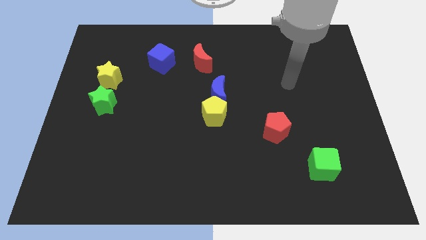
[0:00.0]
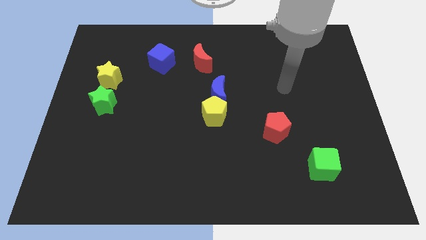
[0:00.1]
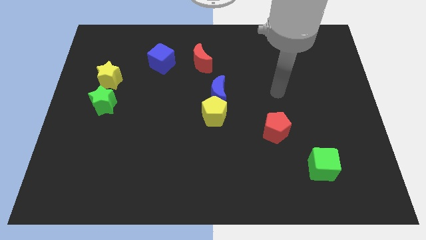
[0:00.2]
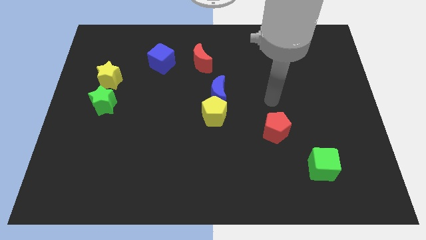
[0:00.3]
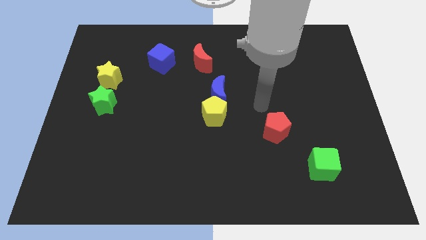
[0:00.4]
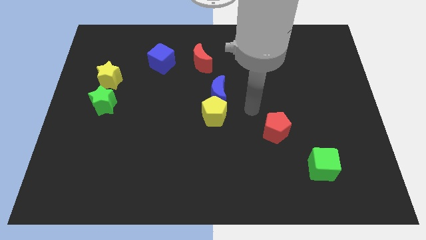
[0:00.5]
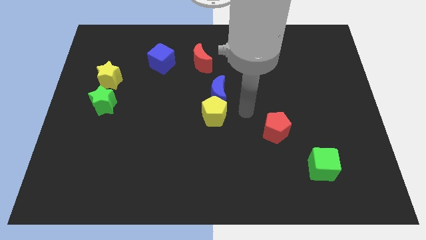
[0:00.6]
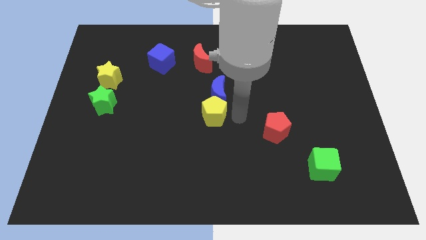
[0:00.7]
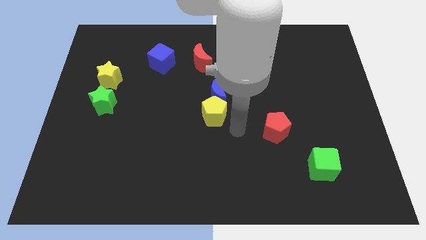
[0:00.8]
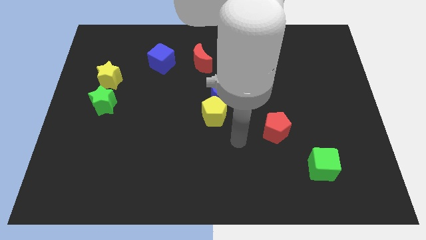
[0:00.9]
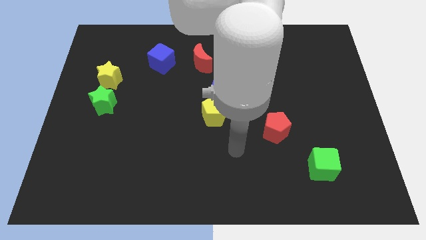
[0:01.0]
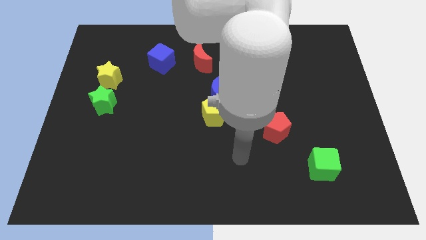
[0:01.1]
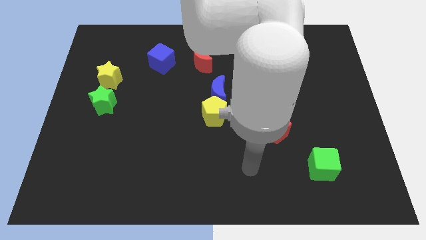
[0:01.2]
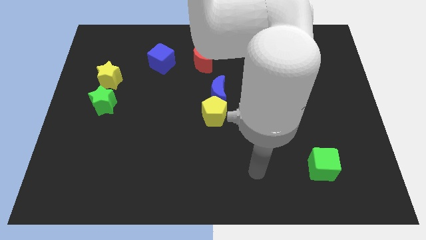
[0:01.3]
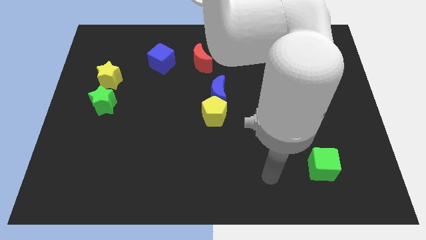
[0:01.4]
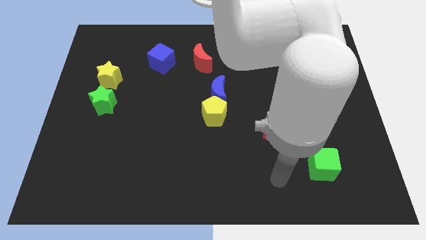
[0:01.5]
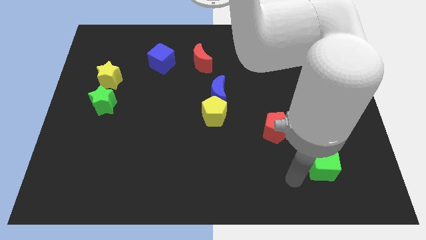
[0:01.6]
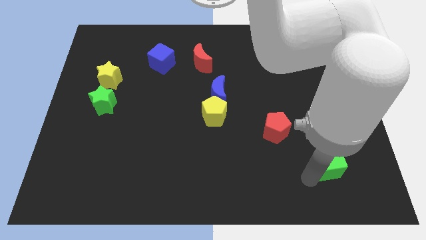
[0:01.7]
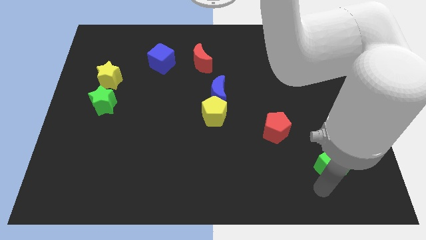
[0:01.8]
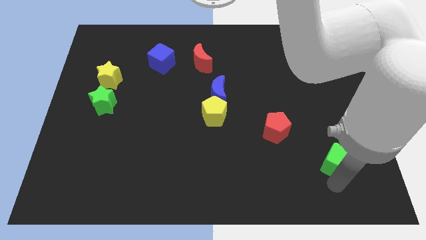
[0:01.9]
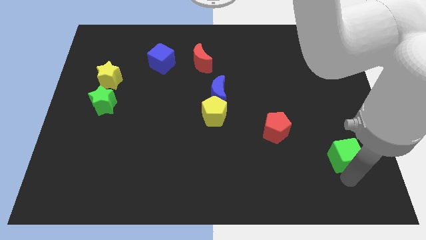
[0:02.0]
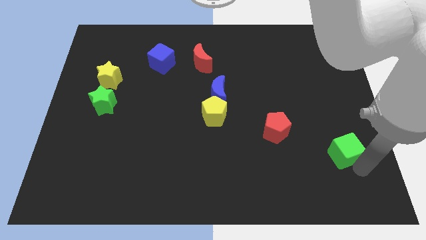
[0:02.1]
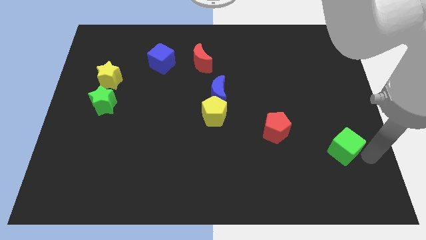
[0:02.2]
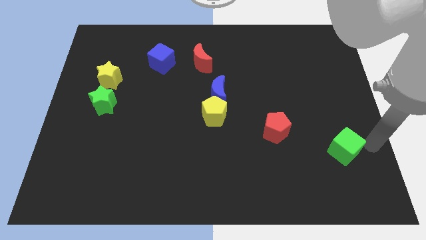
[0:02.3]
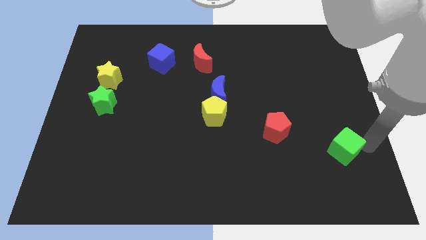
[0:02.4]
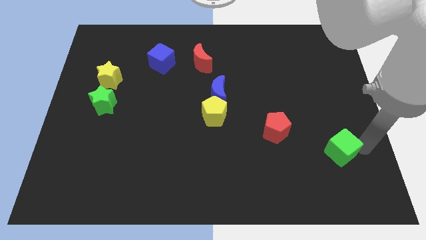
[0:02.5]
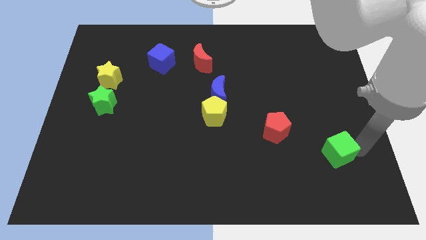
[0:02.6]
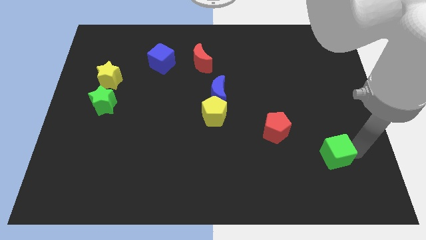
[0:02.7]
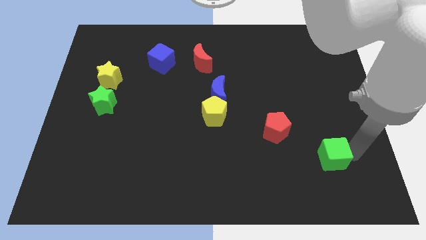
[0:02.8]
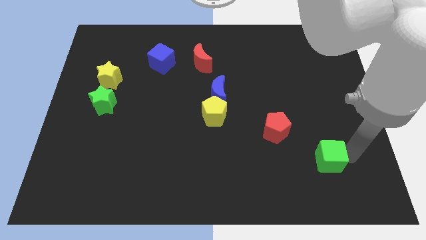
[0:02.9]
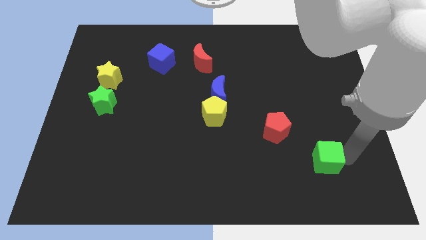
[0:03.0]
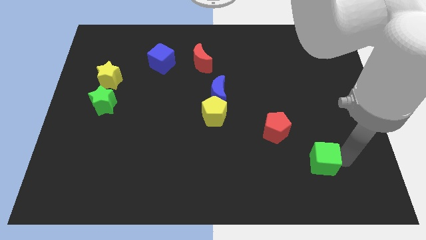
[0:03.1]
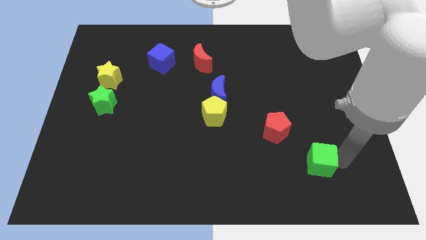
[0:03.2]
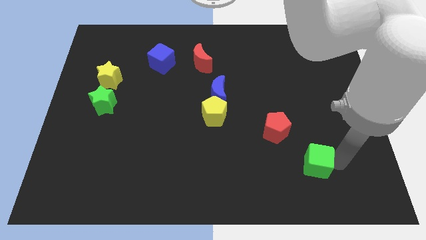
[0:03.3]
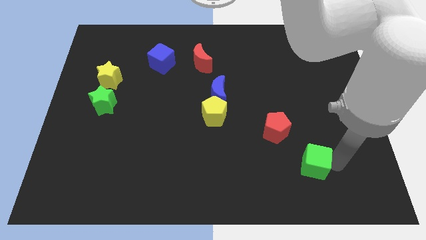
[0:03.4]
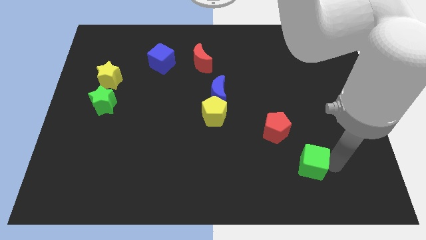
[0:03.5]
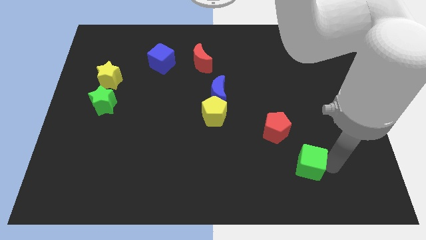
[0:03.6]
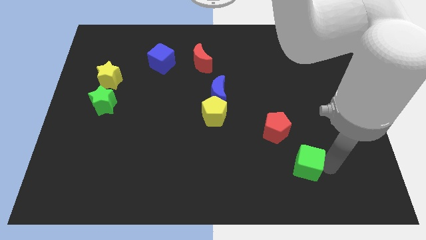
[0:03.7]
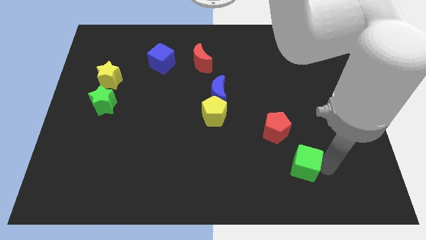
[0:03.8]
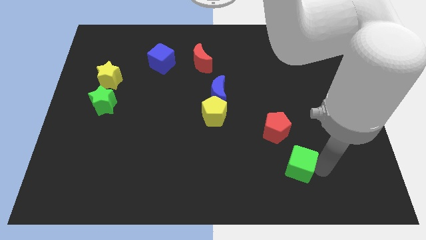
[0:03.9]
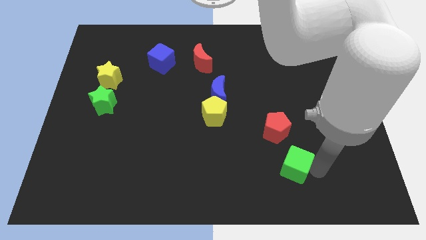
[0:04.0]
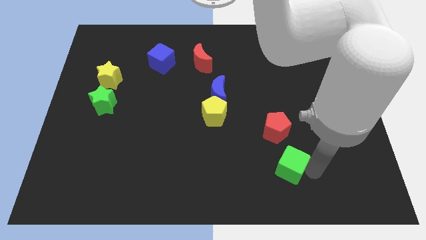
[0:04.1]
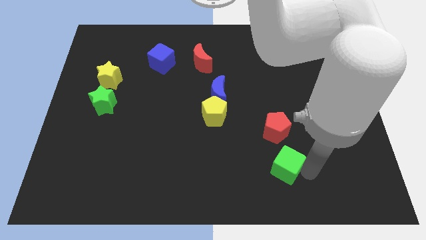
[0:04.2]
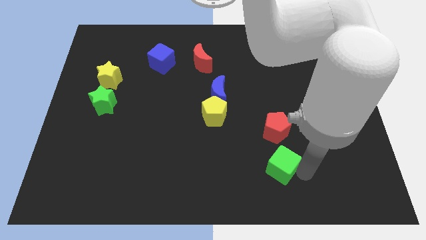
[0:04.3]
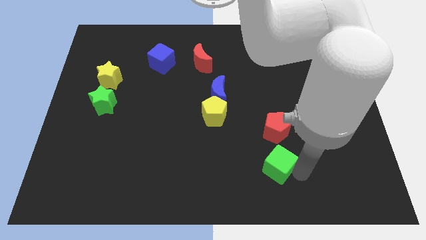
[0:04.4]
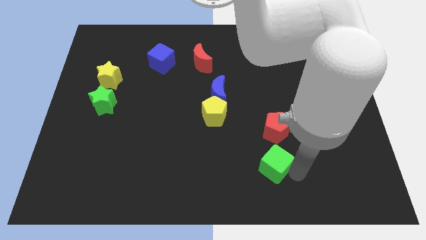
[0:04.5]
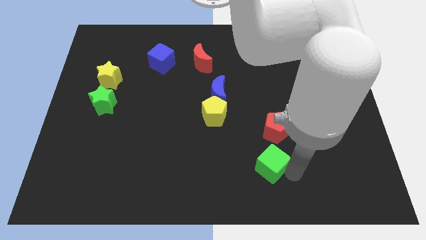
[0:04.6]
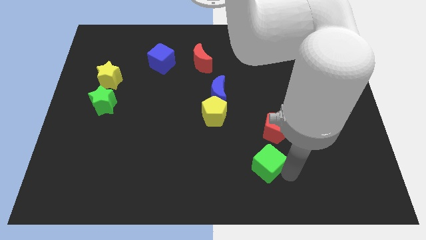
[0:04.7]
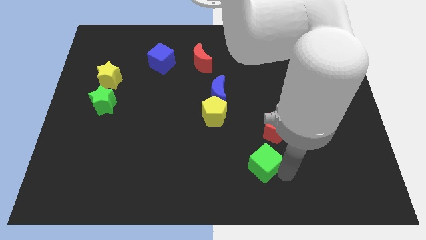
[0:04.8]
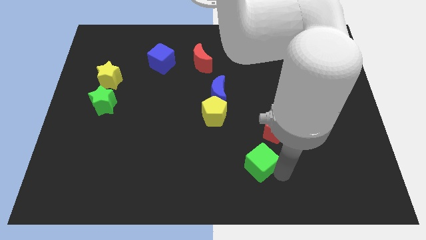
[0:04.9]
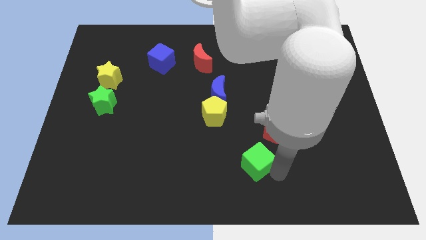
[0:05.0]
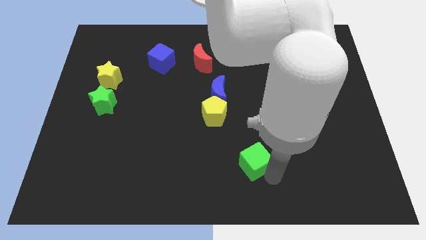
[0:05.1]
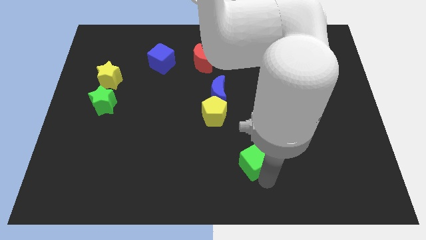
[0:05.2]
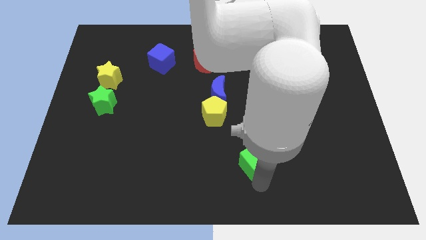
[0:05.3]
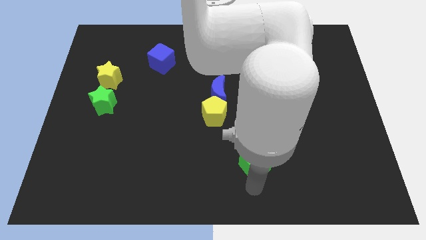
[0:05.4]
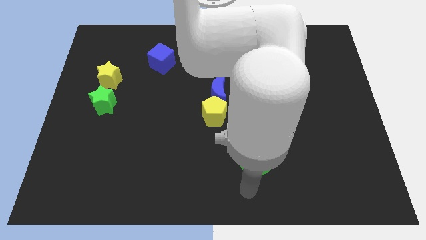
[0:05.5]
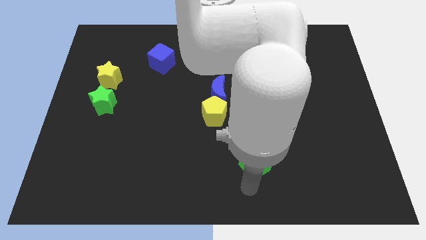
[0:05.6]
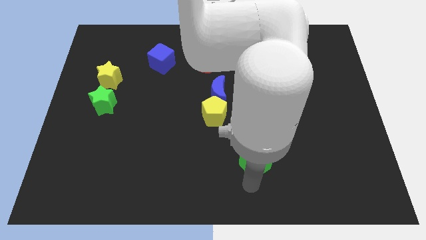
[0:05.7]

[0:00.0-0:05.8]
slide the green cube upwards and left somewhat

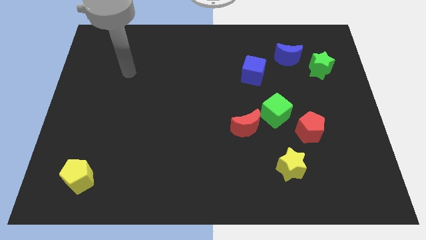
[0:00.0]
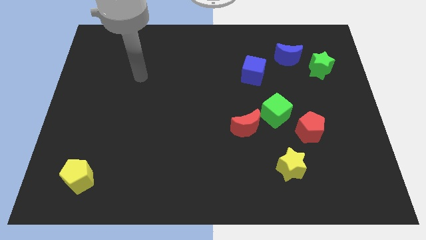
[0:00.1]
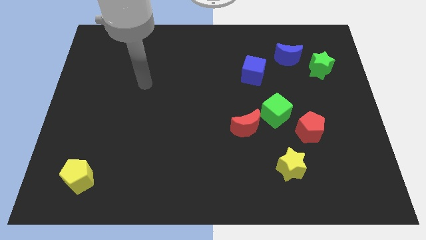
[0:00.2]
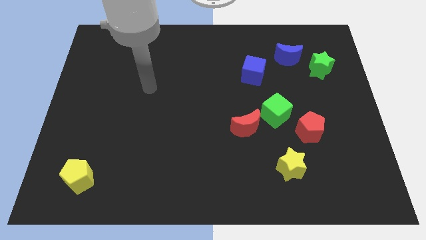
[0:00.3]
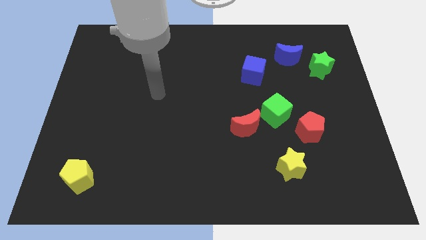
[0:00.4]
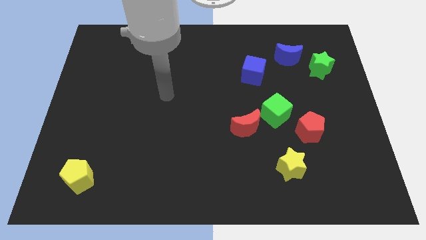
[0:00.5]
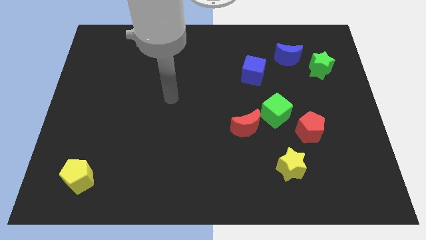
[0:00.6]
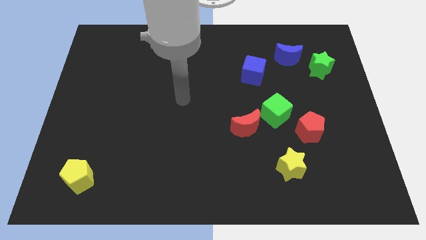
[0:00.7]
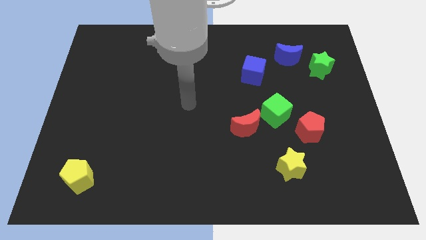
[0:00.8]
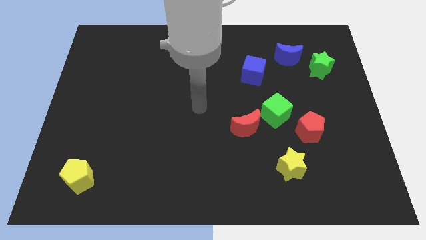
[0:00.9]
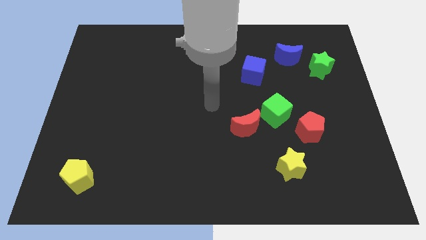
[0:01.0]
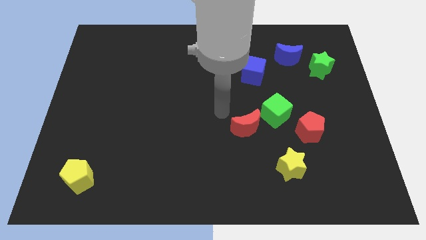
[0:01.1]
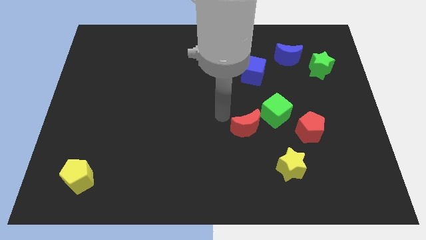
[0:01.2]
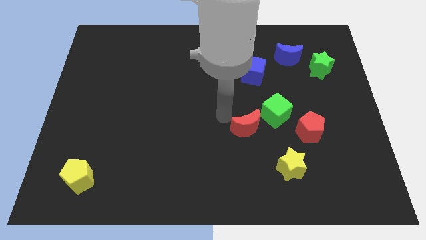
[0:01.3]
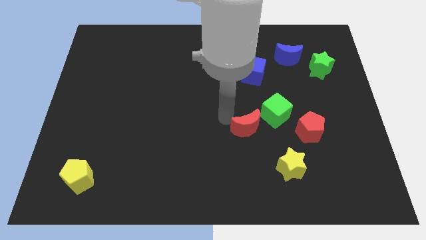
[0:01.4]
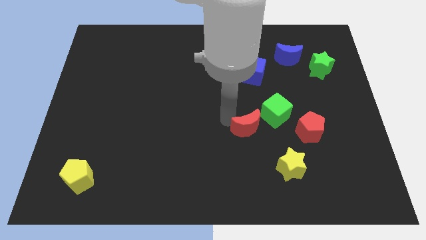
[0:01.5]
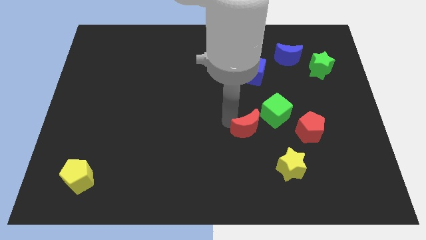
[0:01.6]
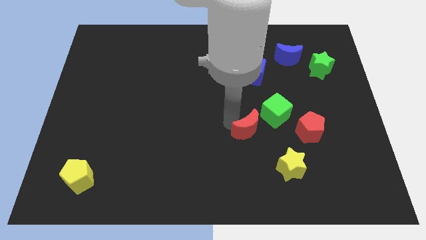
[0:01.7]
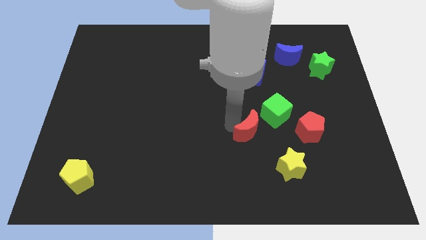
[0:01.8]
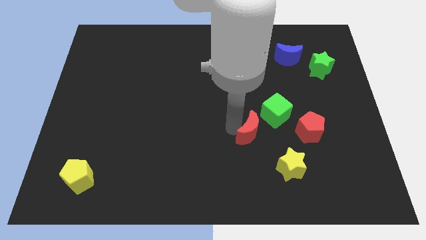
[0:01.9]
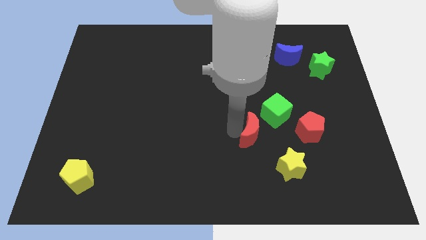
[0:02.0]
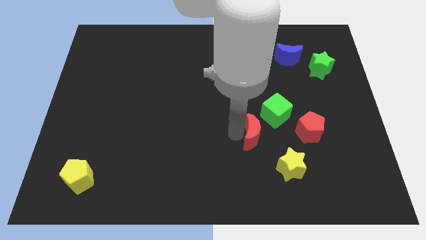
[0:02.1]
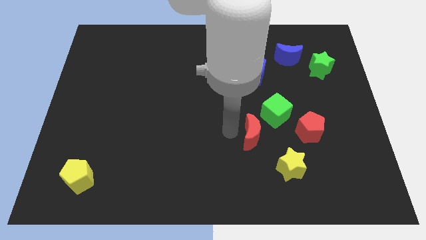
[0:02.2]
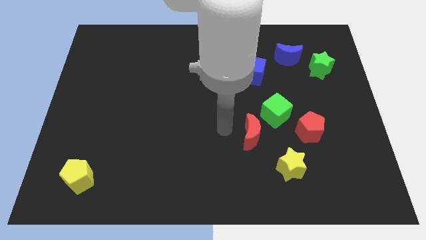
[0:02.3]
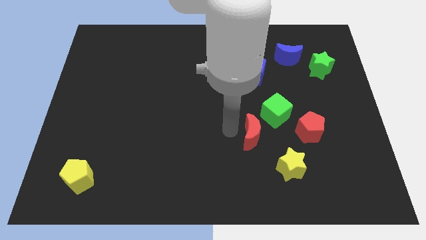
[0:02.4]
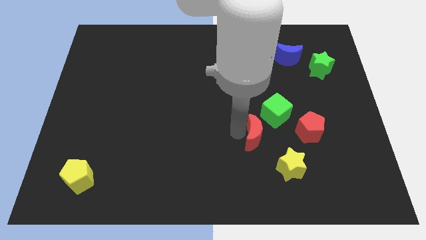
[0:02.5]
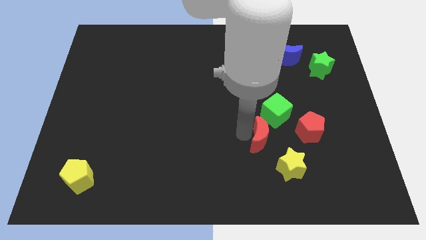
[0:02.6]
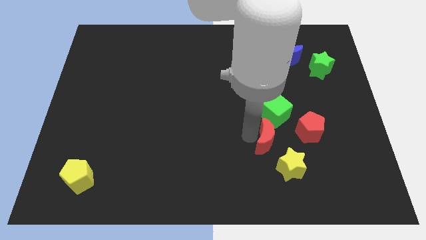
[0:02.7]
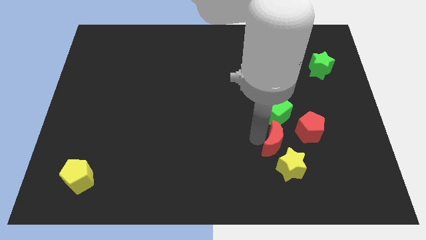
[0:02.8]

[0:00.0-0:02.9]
push the red moon a bit down and to the right
